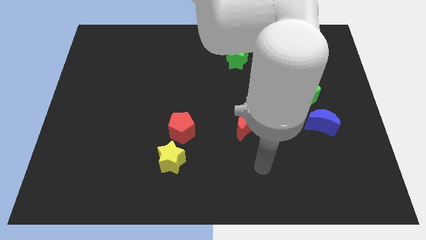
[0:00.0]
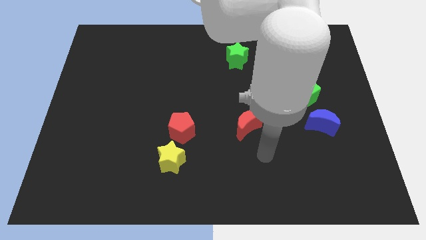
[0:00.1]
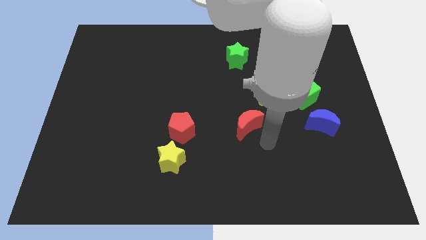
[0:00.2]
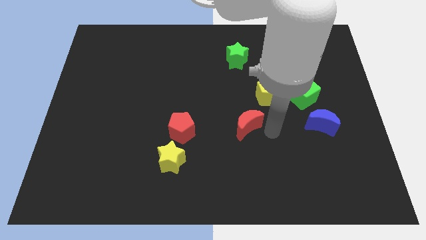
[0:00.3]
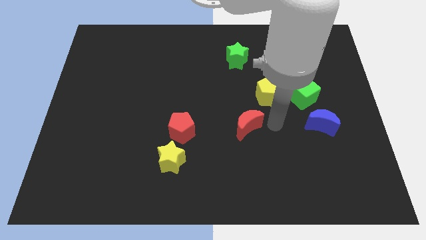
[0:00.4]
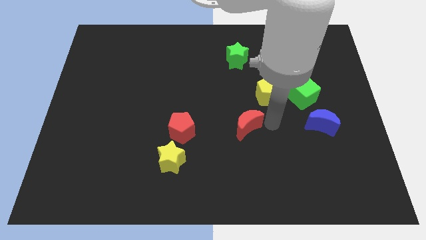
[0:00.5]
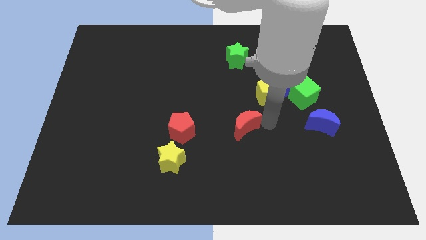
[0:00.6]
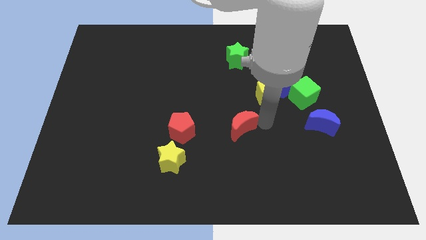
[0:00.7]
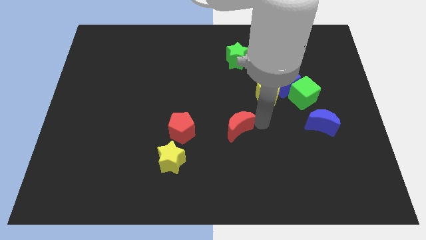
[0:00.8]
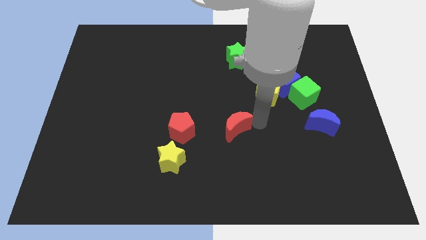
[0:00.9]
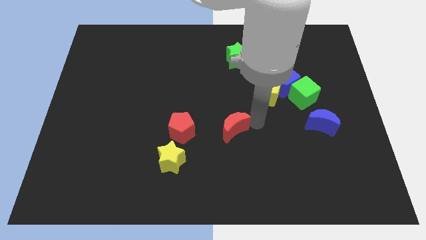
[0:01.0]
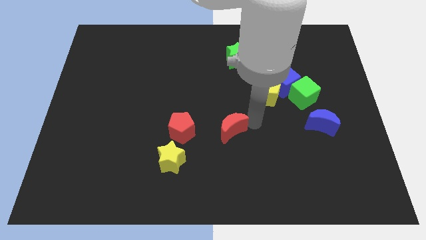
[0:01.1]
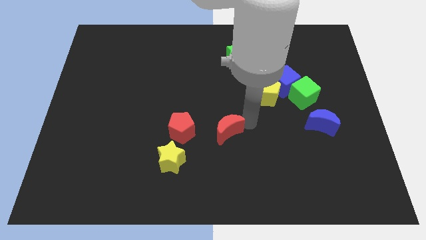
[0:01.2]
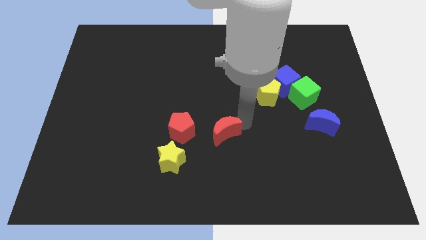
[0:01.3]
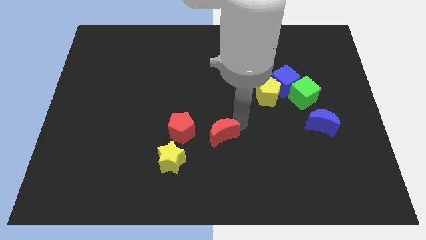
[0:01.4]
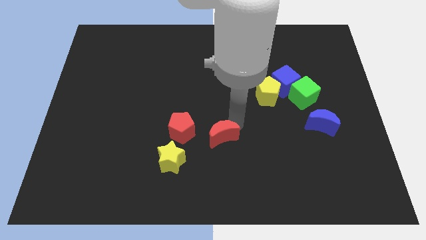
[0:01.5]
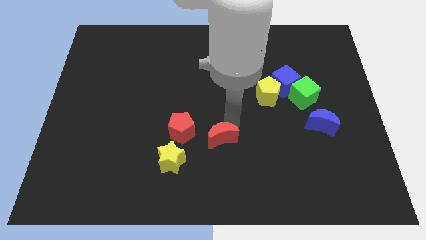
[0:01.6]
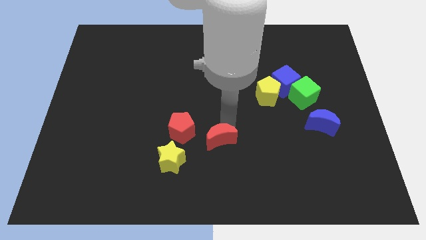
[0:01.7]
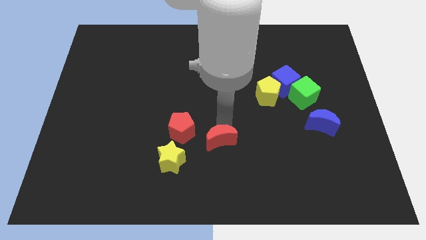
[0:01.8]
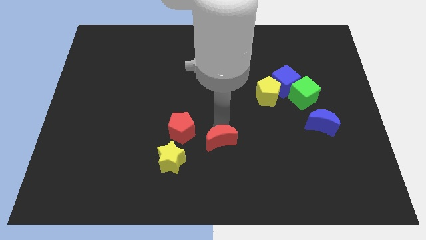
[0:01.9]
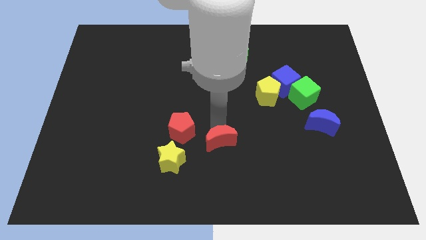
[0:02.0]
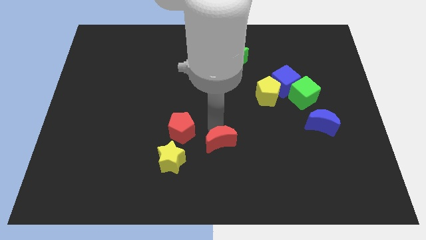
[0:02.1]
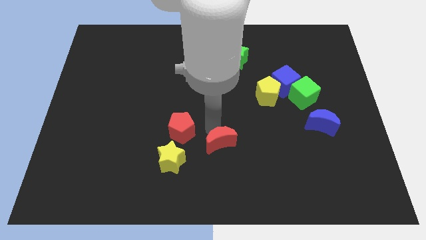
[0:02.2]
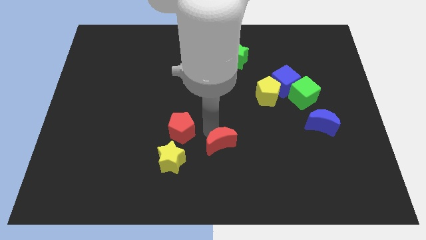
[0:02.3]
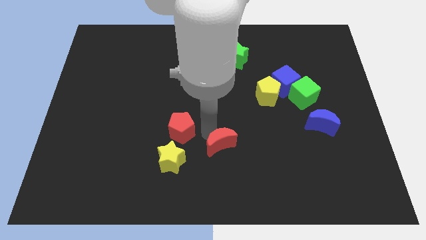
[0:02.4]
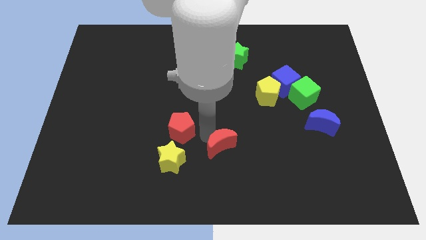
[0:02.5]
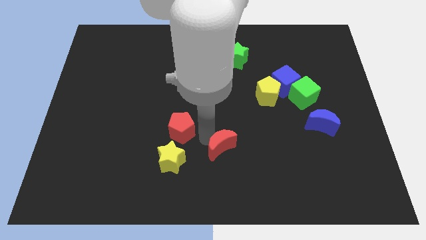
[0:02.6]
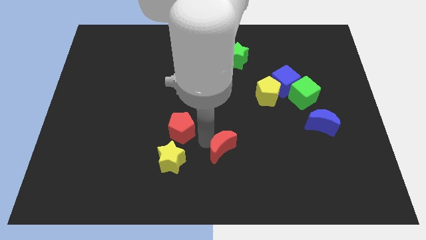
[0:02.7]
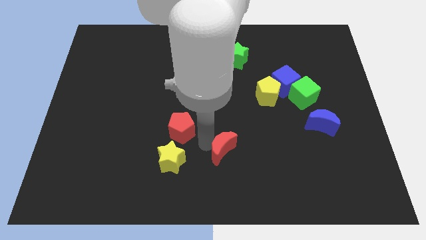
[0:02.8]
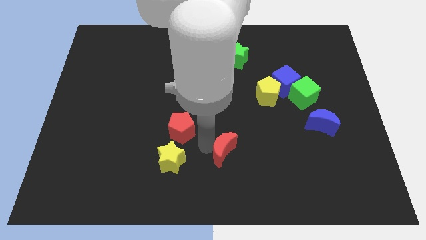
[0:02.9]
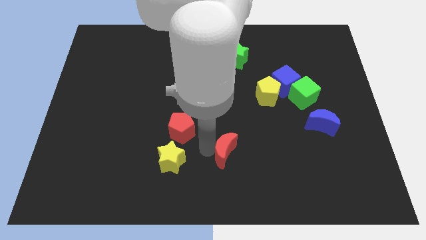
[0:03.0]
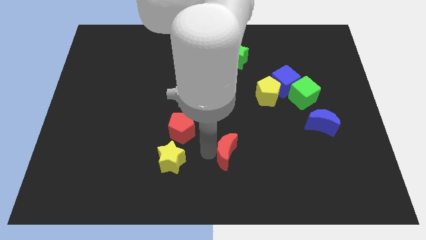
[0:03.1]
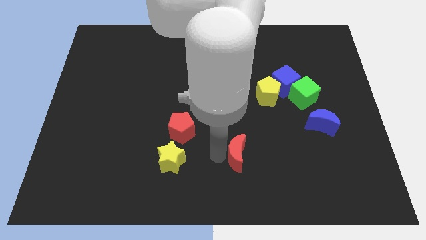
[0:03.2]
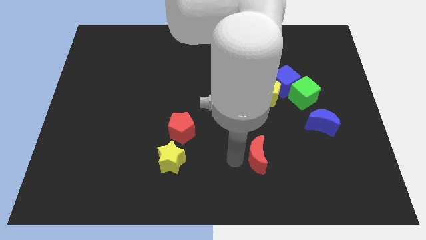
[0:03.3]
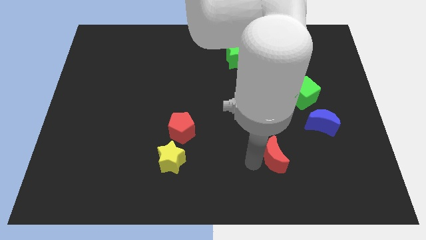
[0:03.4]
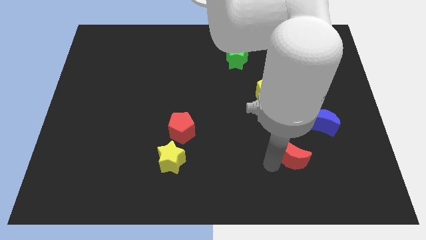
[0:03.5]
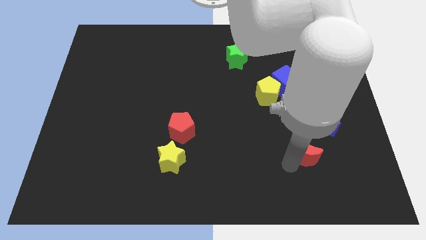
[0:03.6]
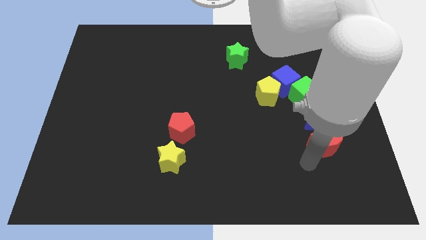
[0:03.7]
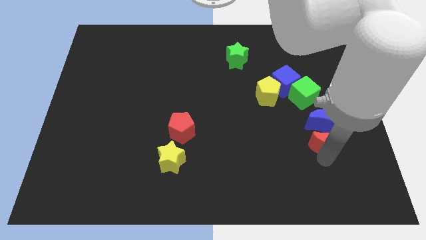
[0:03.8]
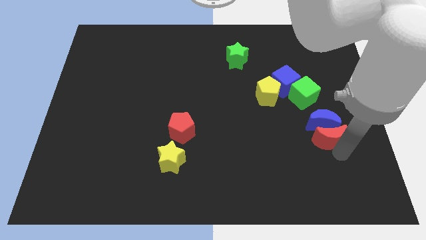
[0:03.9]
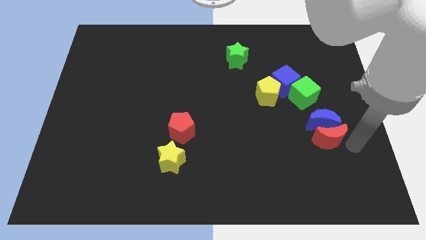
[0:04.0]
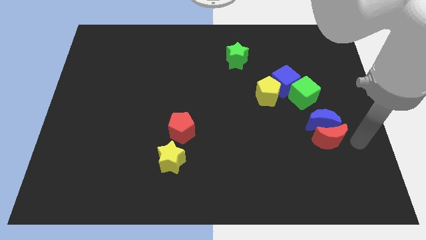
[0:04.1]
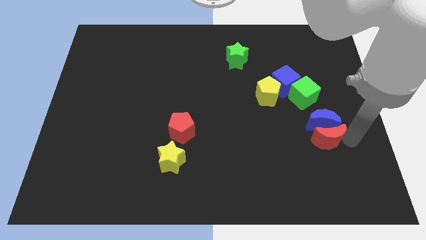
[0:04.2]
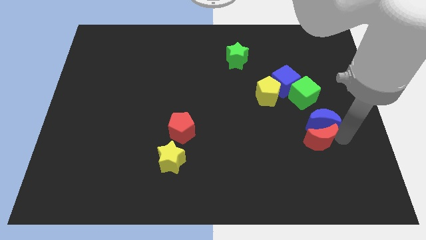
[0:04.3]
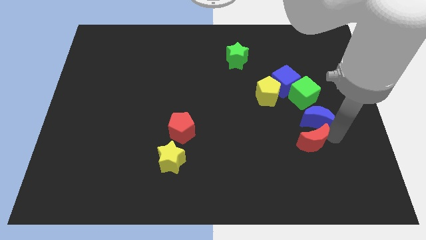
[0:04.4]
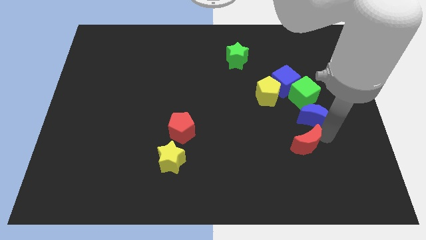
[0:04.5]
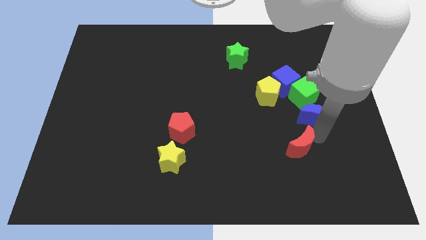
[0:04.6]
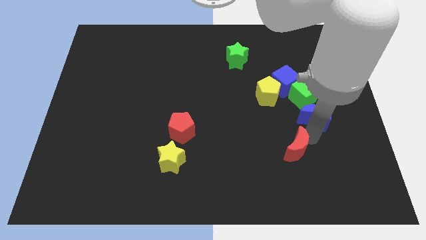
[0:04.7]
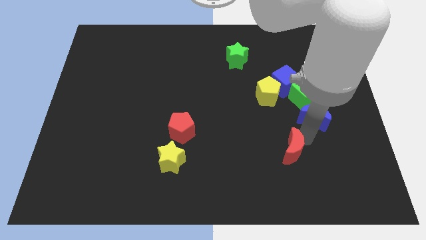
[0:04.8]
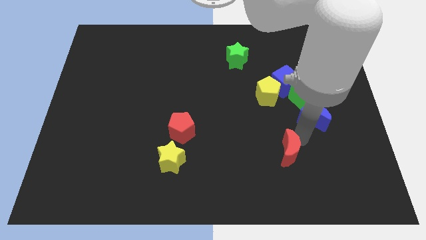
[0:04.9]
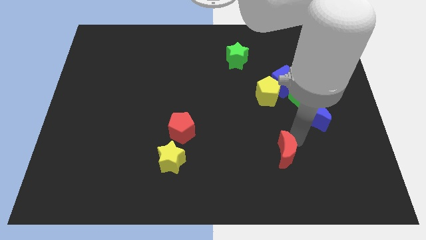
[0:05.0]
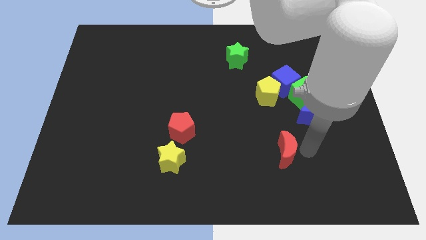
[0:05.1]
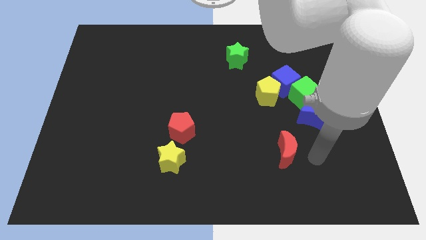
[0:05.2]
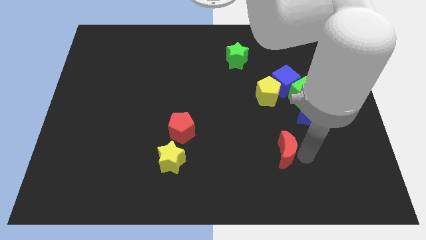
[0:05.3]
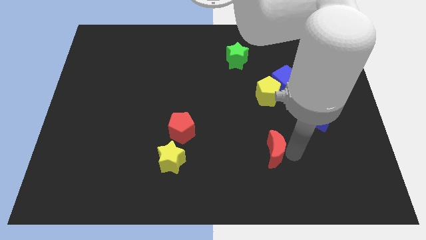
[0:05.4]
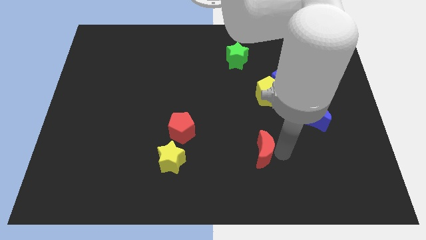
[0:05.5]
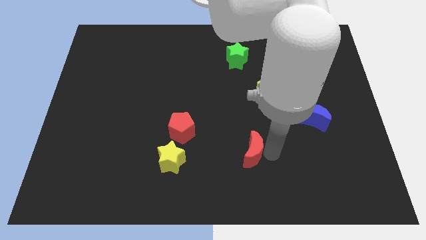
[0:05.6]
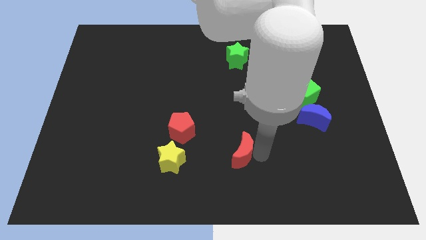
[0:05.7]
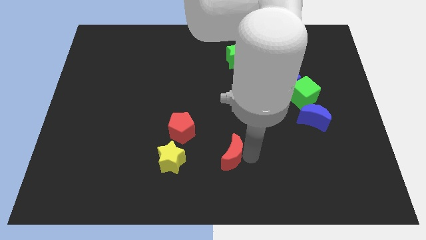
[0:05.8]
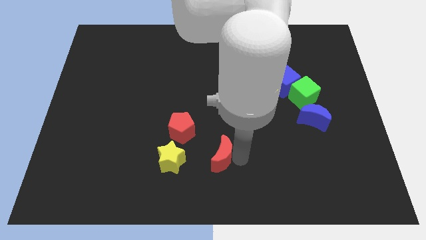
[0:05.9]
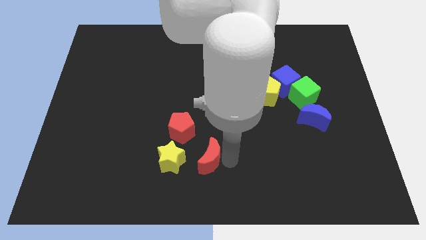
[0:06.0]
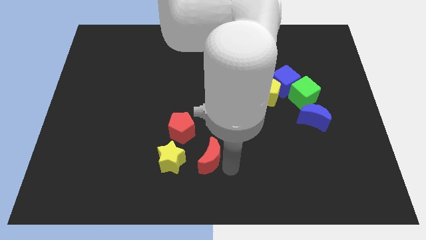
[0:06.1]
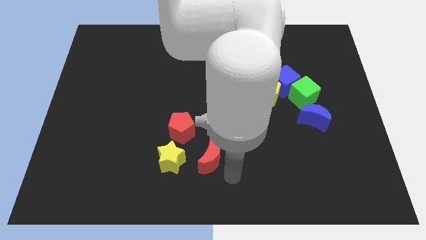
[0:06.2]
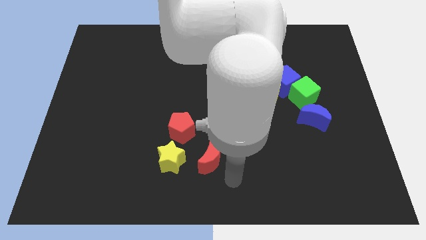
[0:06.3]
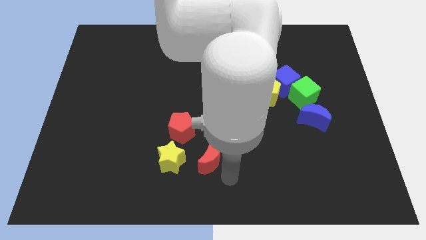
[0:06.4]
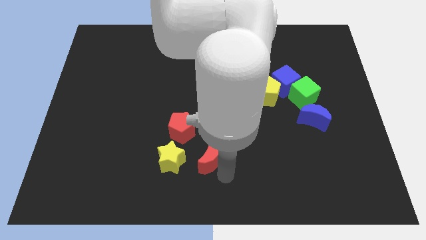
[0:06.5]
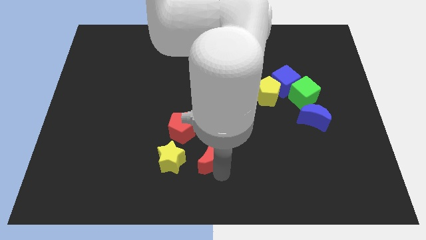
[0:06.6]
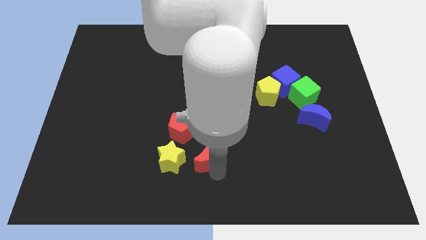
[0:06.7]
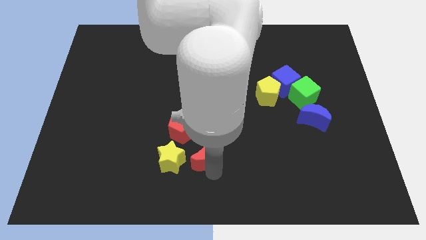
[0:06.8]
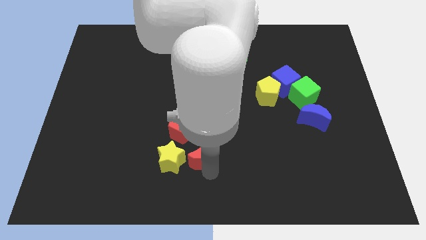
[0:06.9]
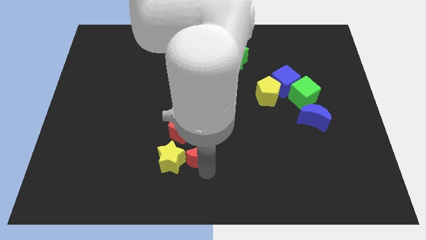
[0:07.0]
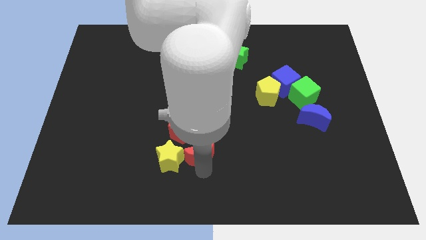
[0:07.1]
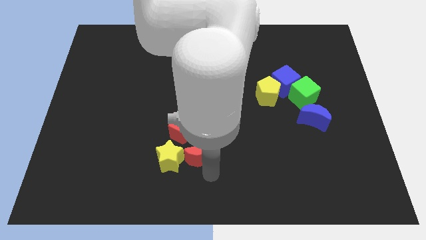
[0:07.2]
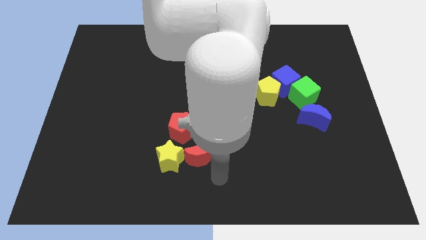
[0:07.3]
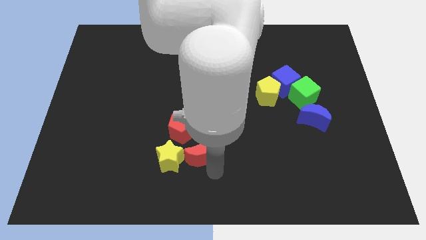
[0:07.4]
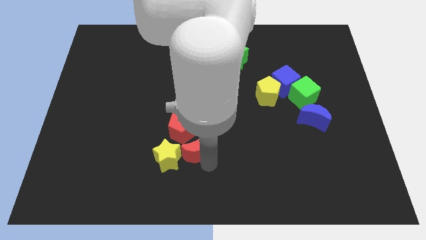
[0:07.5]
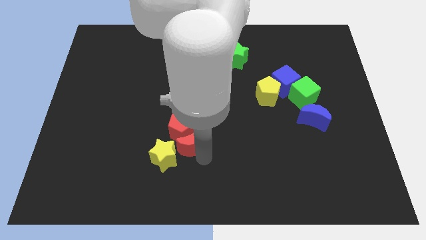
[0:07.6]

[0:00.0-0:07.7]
put the red moon towards the red pentagon
